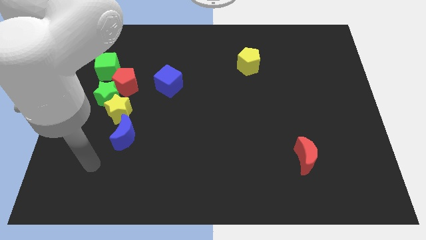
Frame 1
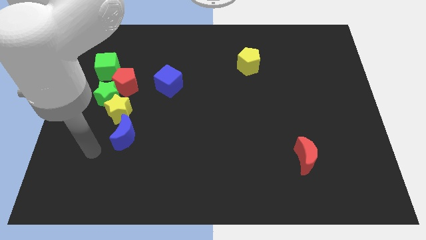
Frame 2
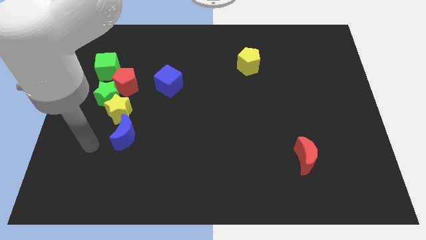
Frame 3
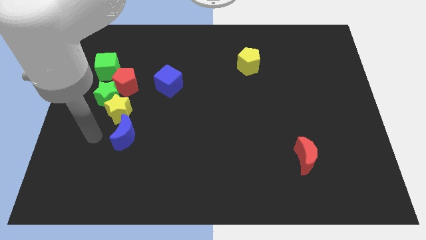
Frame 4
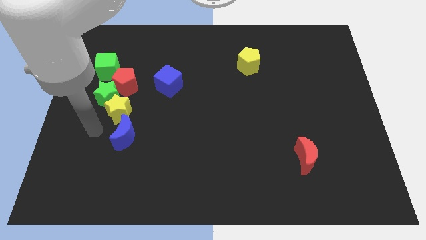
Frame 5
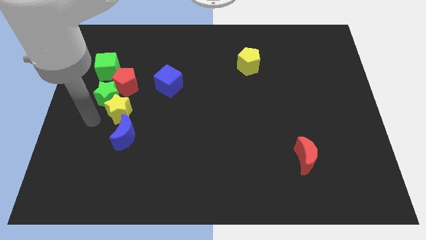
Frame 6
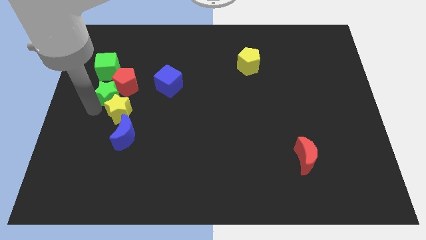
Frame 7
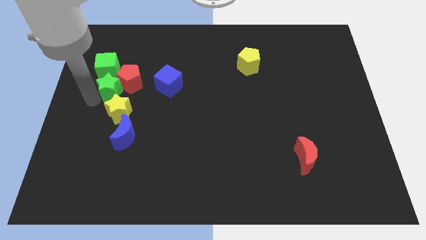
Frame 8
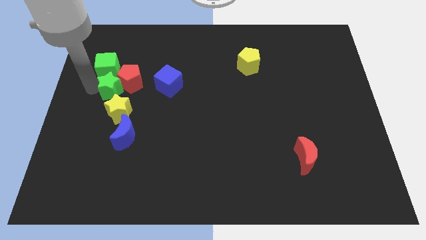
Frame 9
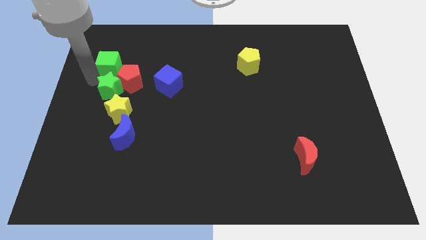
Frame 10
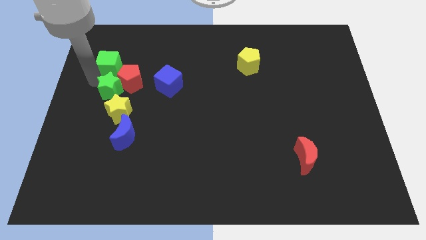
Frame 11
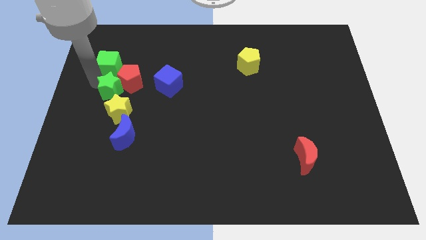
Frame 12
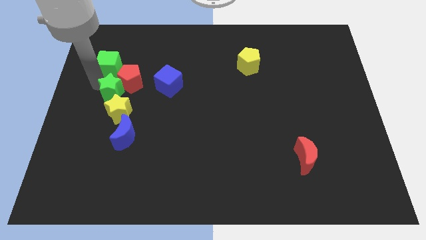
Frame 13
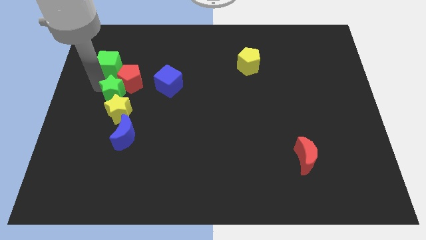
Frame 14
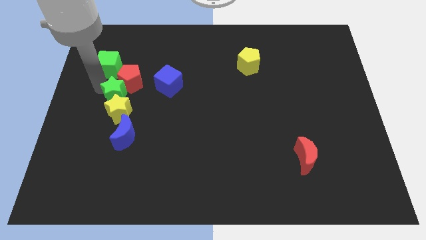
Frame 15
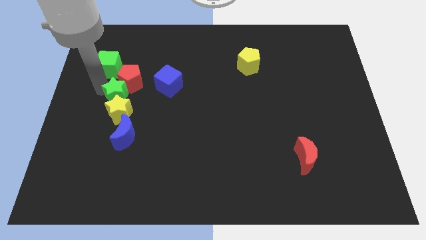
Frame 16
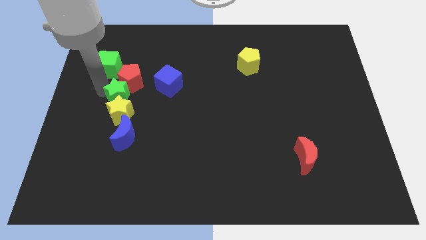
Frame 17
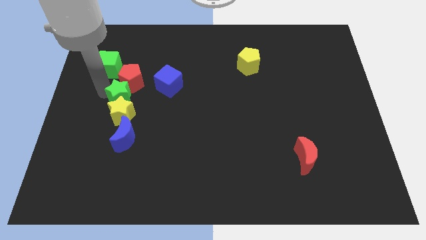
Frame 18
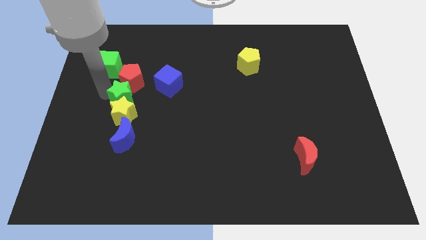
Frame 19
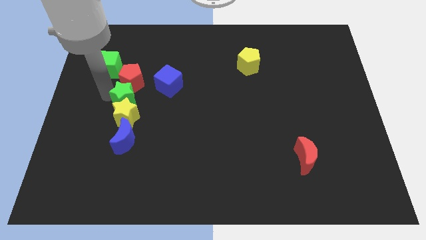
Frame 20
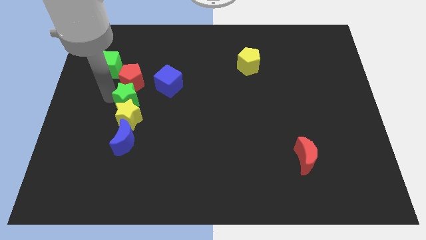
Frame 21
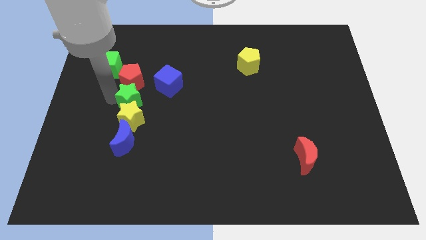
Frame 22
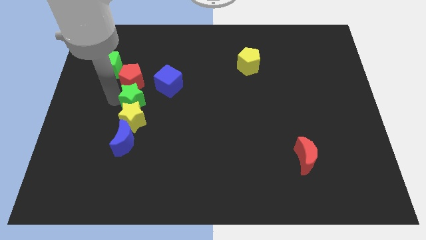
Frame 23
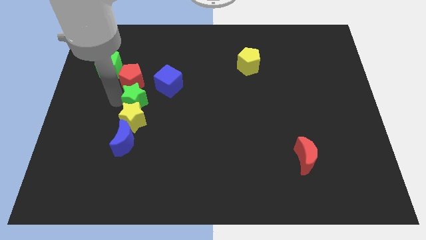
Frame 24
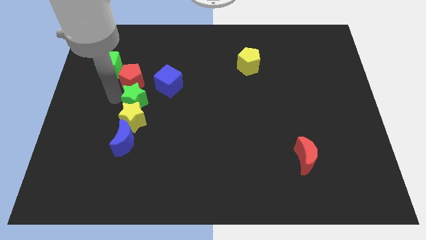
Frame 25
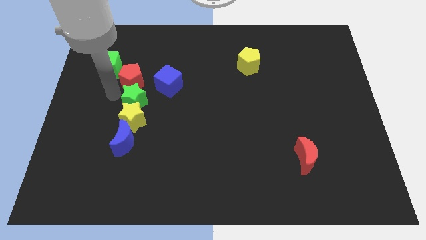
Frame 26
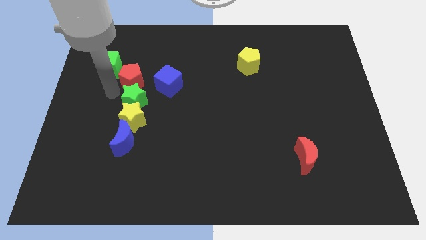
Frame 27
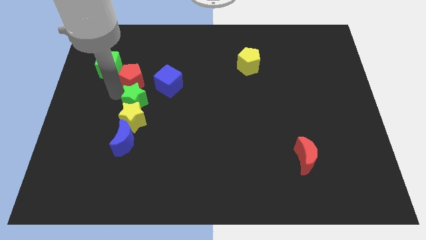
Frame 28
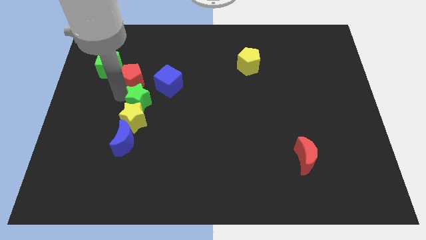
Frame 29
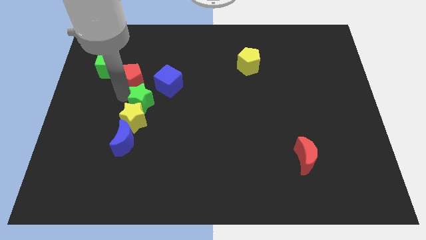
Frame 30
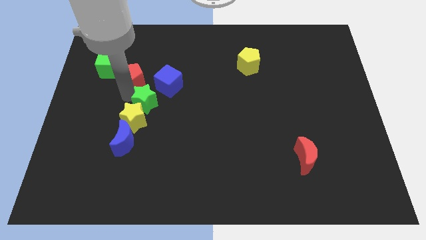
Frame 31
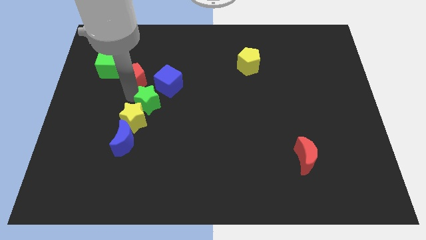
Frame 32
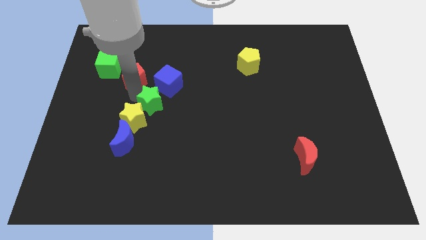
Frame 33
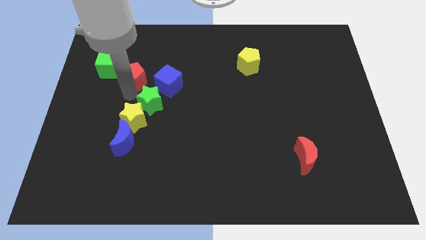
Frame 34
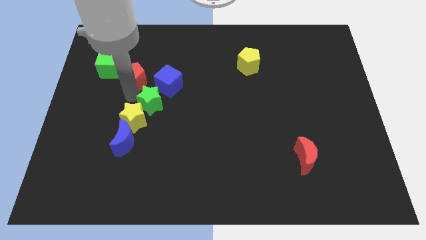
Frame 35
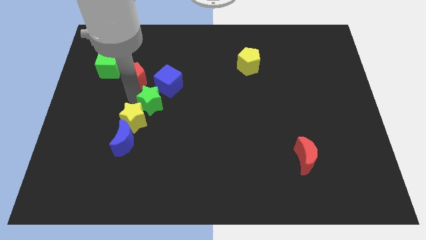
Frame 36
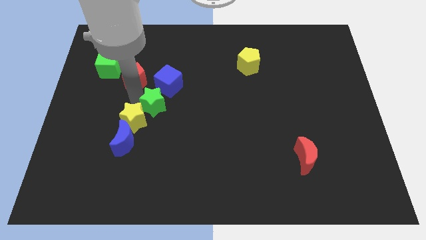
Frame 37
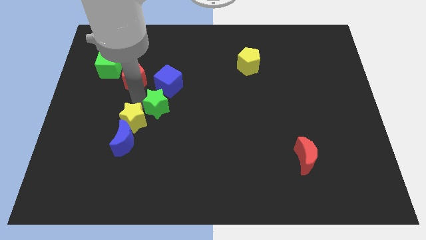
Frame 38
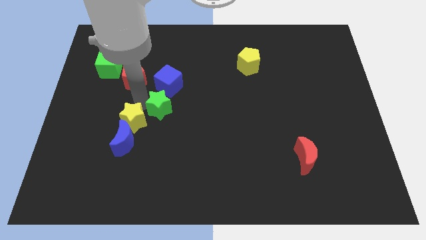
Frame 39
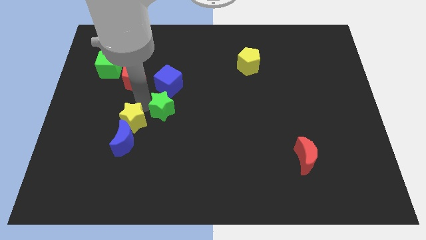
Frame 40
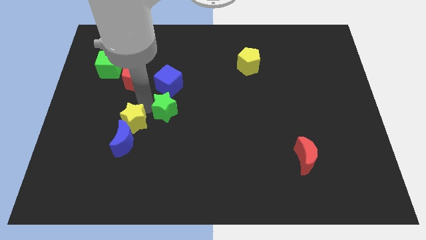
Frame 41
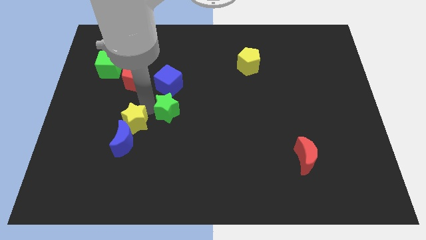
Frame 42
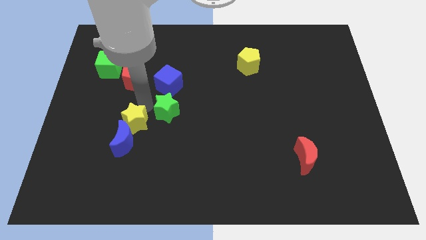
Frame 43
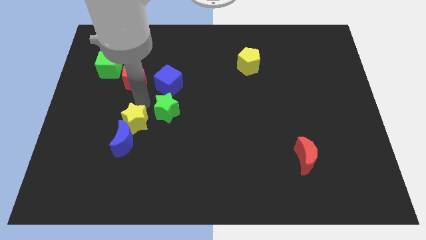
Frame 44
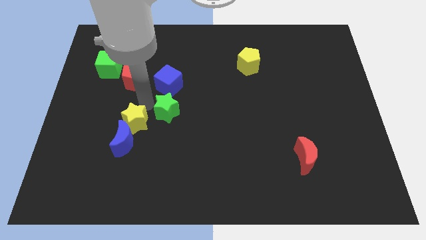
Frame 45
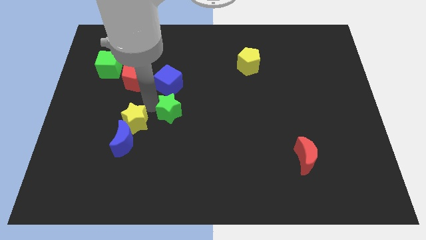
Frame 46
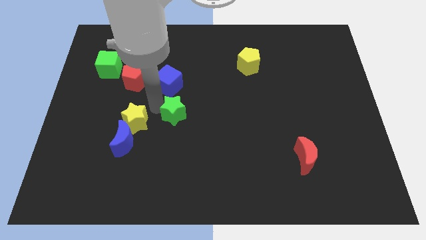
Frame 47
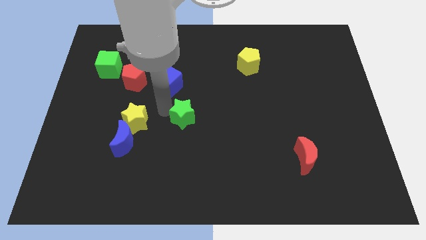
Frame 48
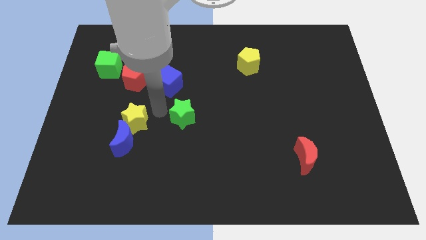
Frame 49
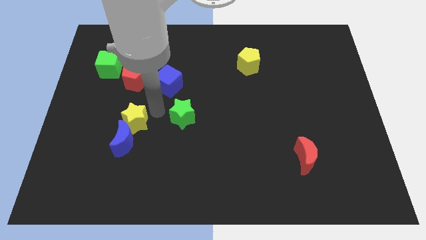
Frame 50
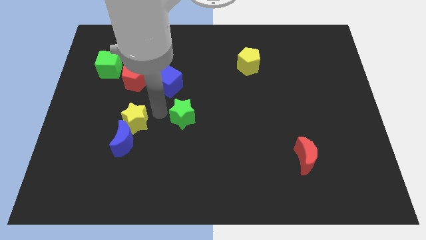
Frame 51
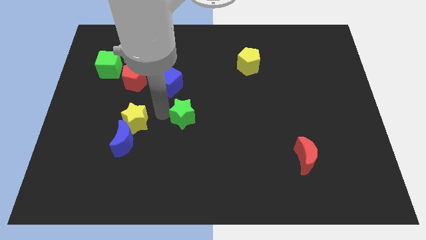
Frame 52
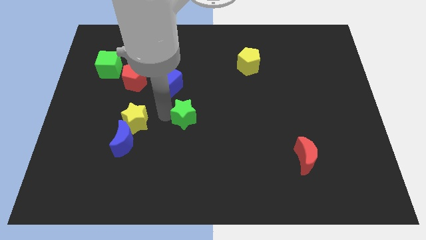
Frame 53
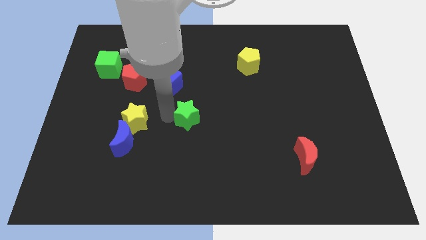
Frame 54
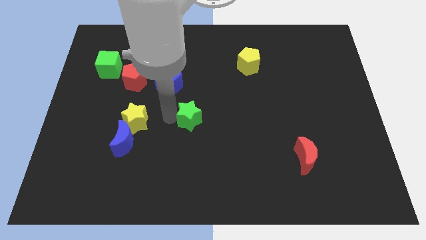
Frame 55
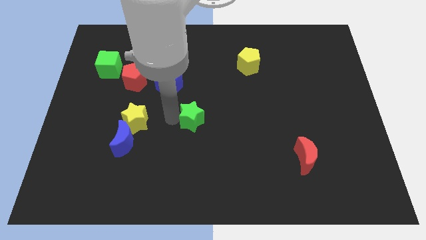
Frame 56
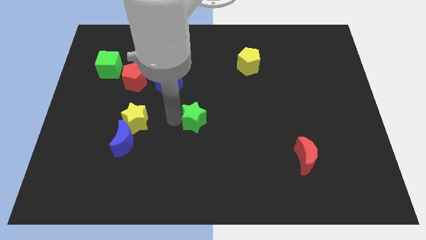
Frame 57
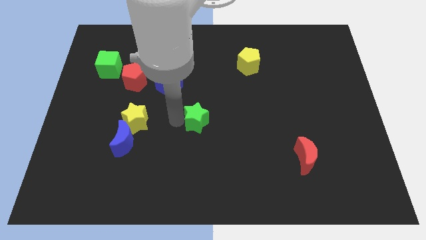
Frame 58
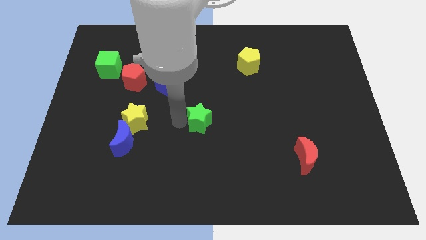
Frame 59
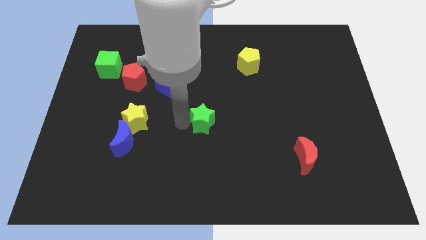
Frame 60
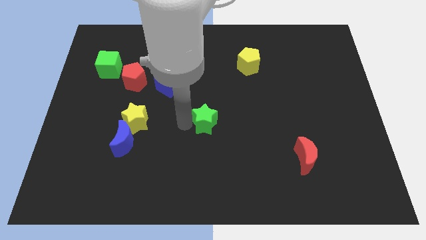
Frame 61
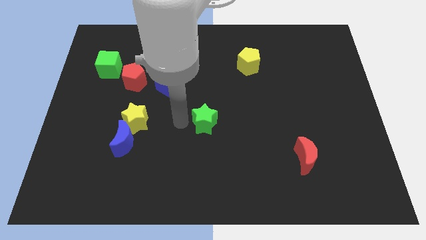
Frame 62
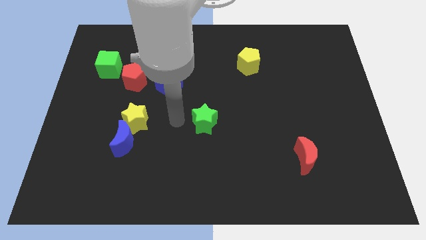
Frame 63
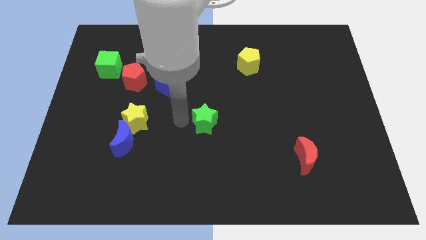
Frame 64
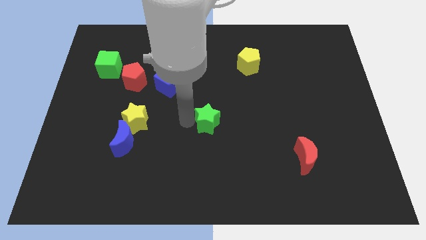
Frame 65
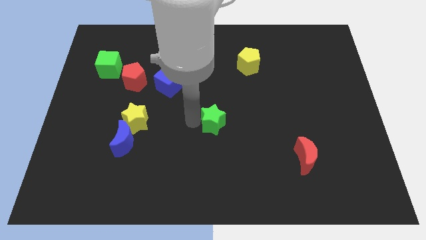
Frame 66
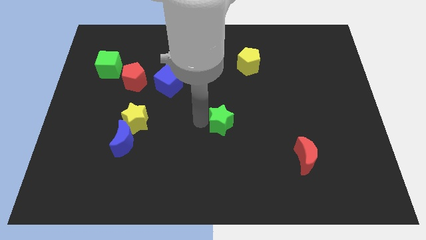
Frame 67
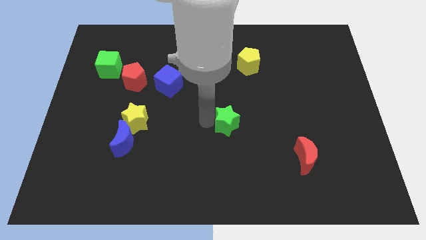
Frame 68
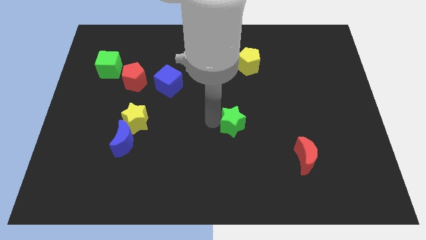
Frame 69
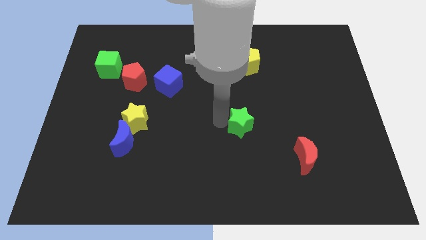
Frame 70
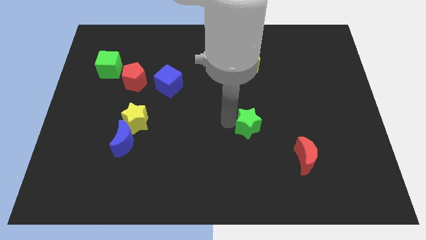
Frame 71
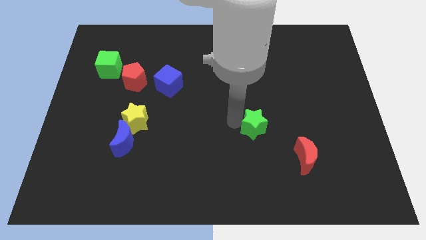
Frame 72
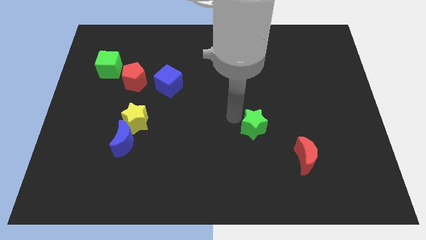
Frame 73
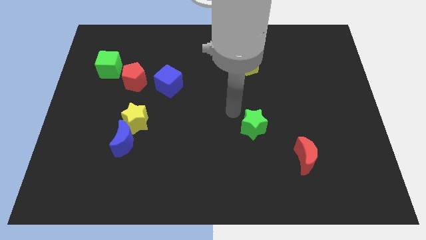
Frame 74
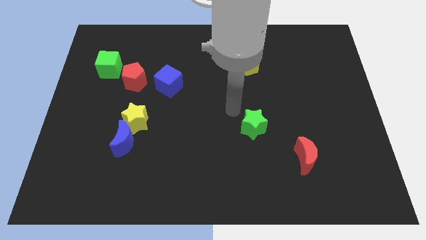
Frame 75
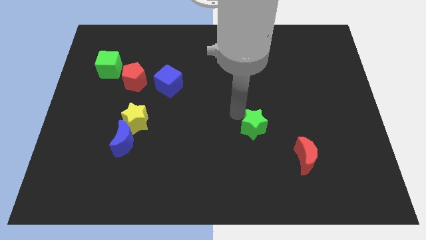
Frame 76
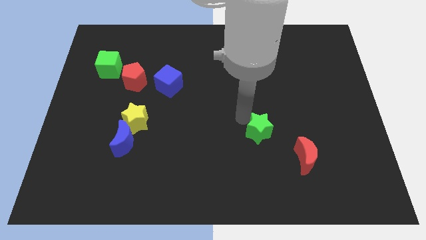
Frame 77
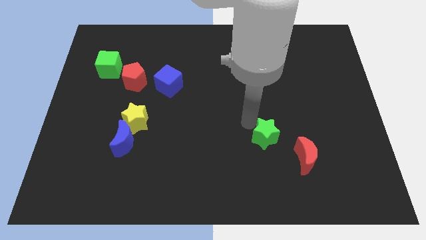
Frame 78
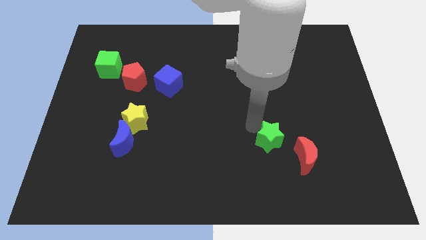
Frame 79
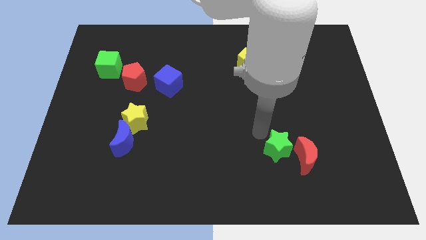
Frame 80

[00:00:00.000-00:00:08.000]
push the green star towards the red moon
